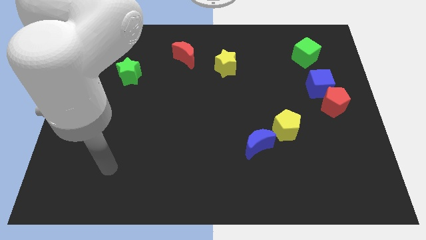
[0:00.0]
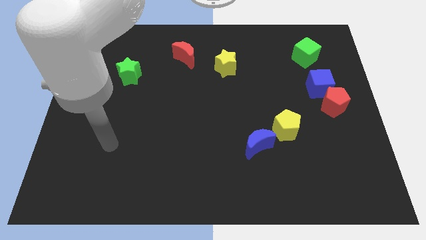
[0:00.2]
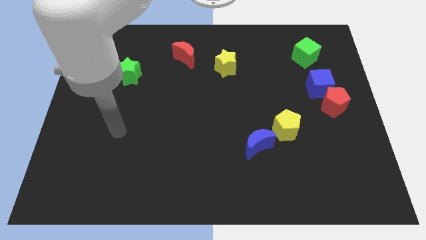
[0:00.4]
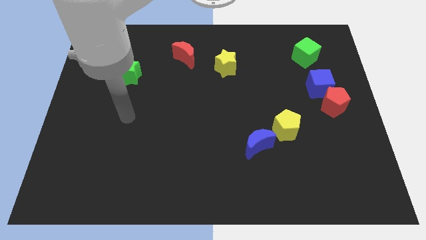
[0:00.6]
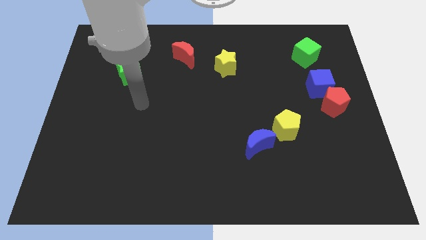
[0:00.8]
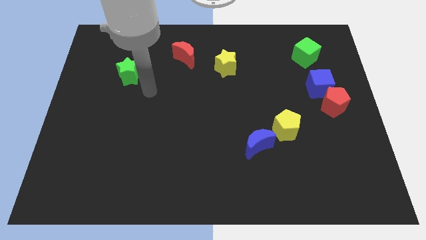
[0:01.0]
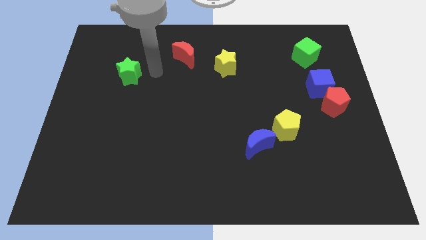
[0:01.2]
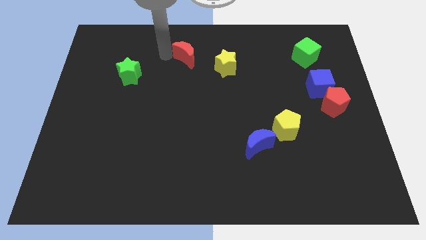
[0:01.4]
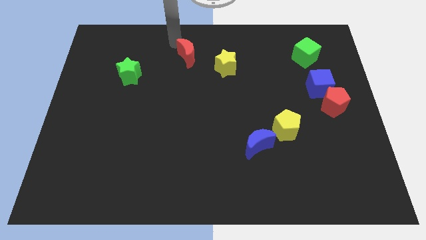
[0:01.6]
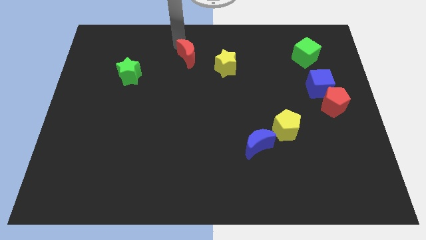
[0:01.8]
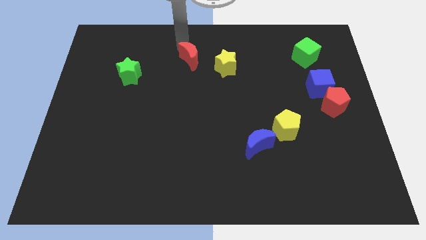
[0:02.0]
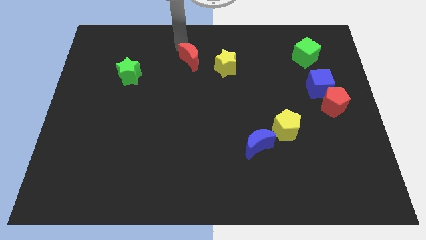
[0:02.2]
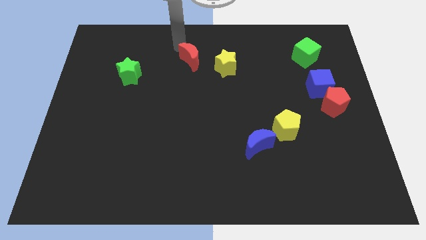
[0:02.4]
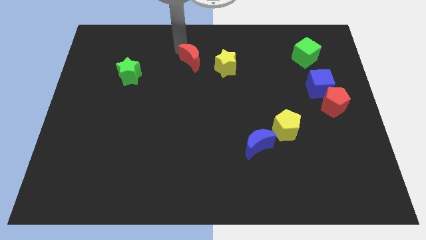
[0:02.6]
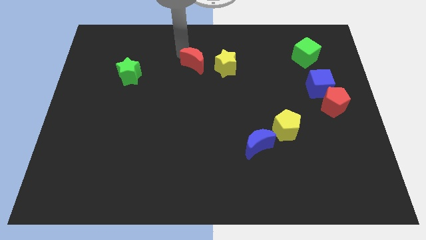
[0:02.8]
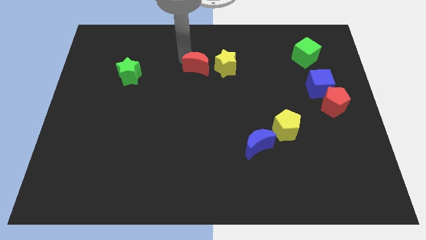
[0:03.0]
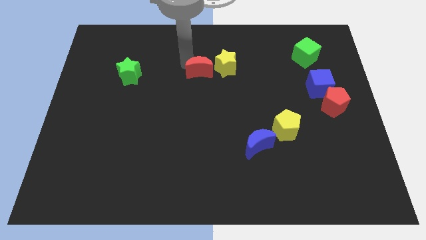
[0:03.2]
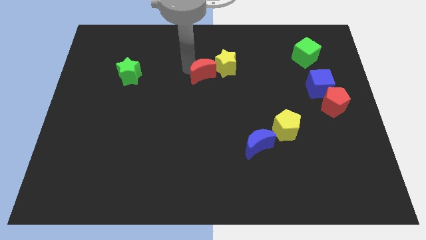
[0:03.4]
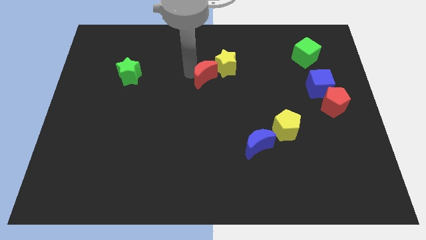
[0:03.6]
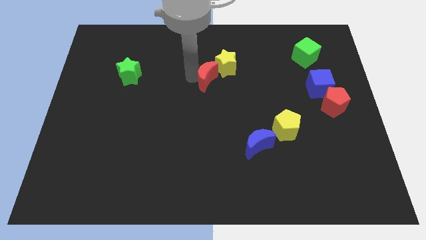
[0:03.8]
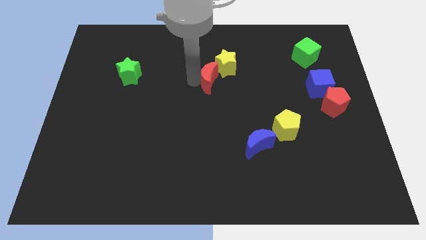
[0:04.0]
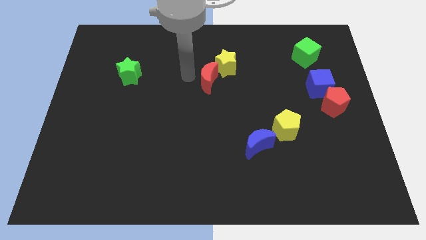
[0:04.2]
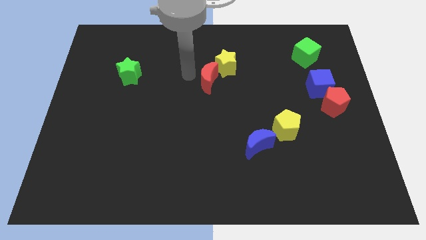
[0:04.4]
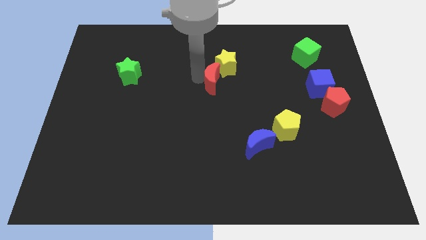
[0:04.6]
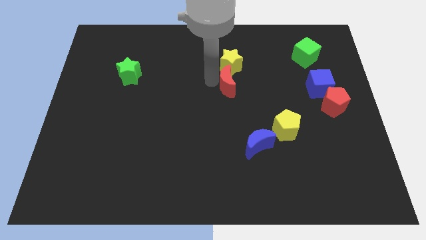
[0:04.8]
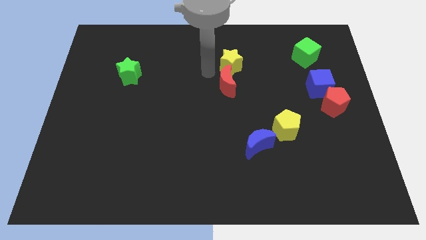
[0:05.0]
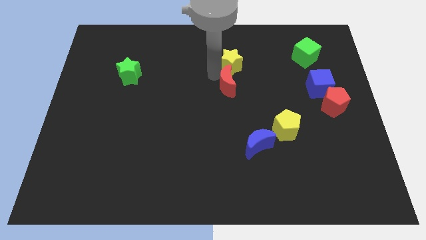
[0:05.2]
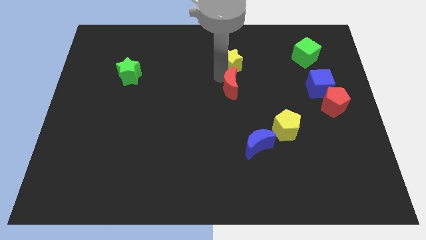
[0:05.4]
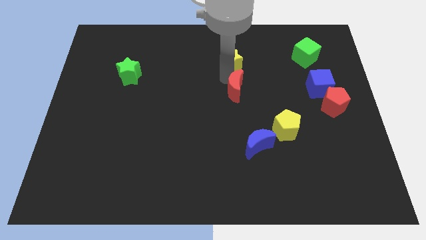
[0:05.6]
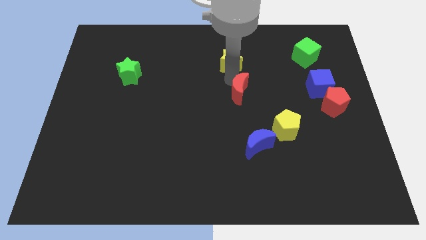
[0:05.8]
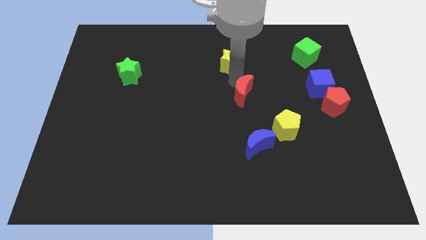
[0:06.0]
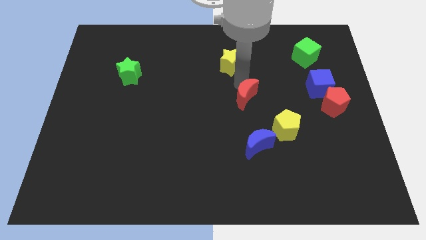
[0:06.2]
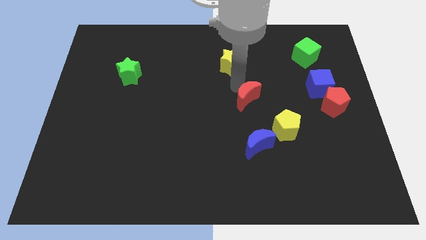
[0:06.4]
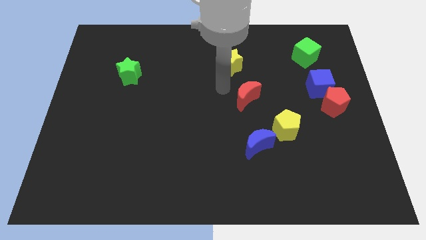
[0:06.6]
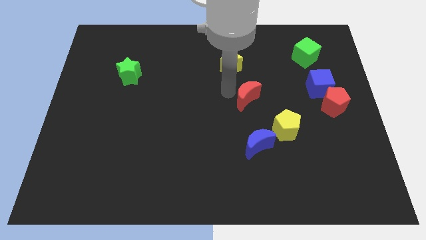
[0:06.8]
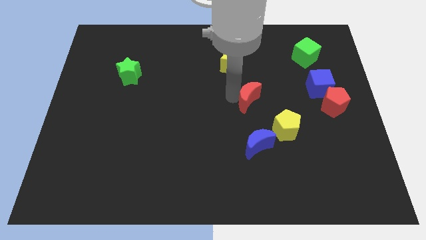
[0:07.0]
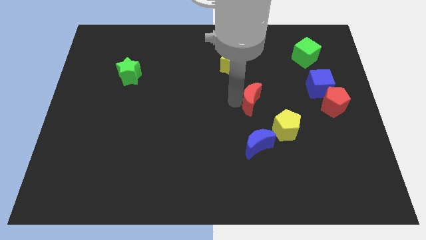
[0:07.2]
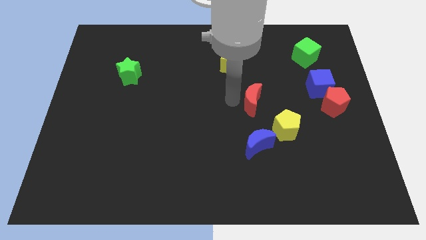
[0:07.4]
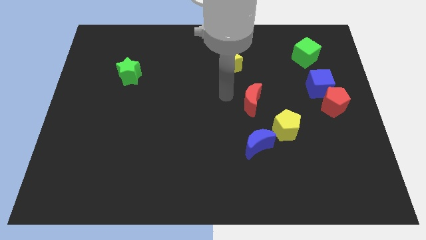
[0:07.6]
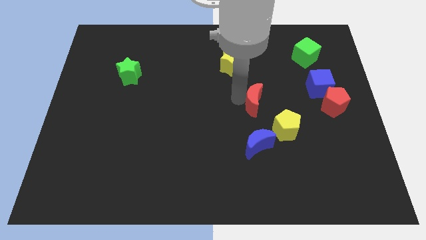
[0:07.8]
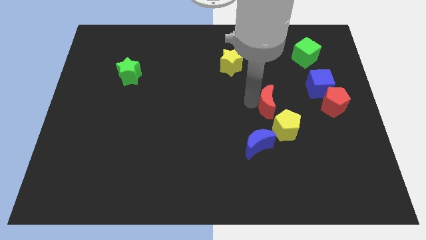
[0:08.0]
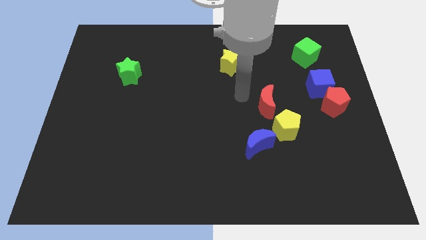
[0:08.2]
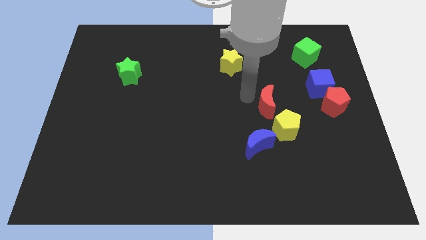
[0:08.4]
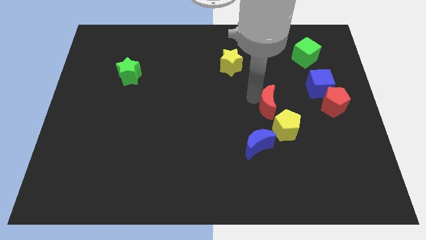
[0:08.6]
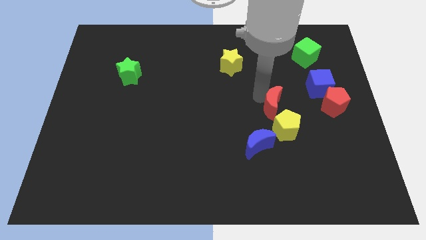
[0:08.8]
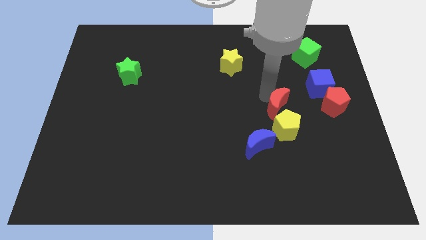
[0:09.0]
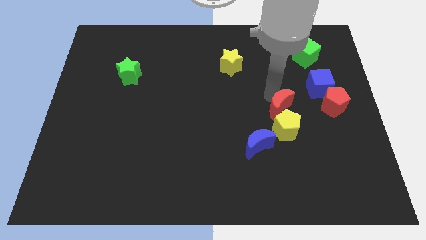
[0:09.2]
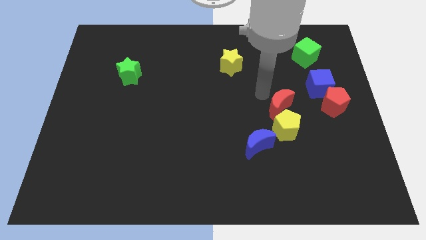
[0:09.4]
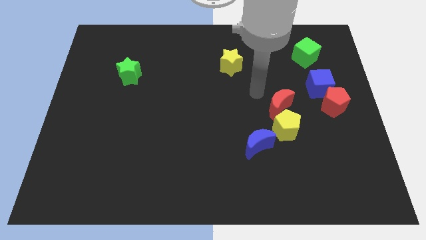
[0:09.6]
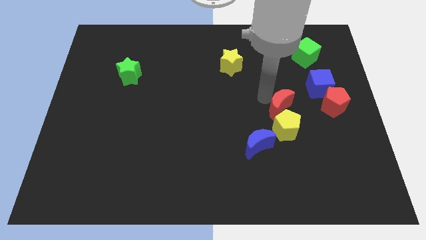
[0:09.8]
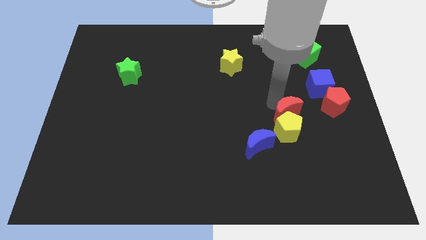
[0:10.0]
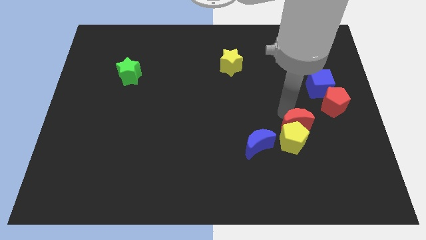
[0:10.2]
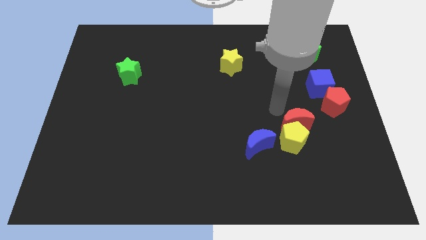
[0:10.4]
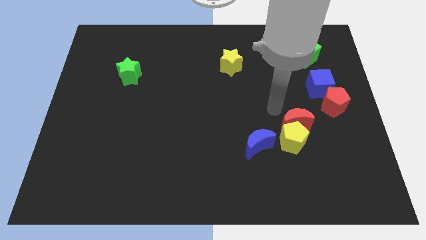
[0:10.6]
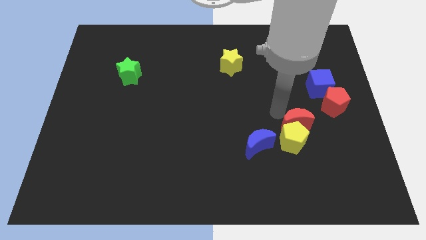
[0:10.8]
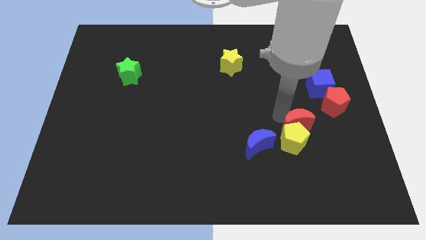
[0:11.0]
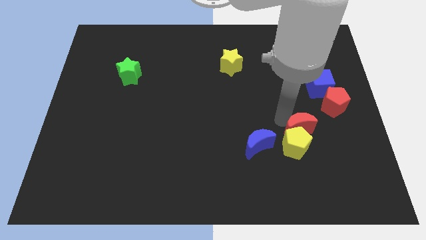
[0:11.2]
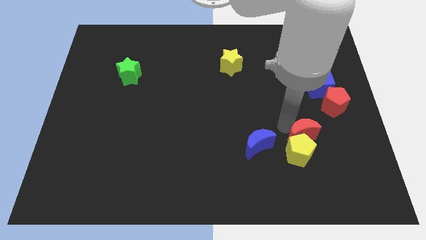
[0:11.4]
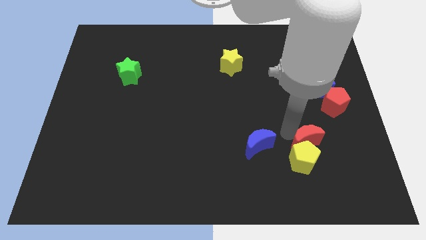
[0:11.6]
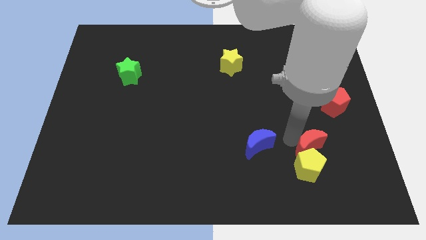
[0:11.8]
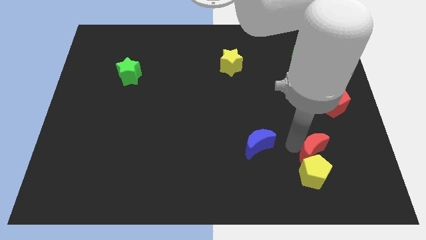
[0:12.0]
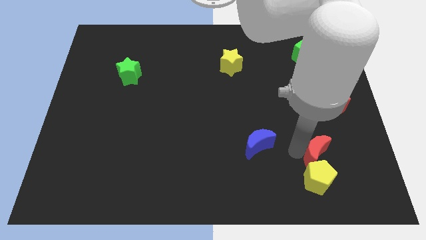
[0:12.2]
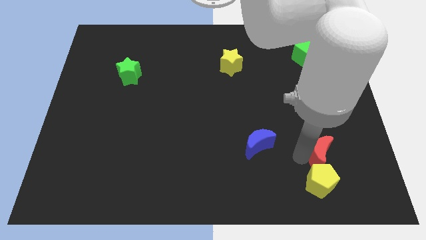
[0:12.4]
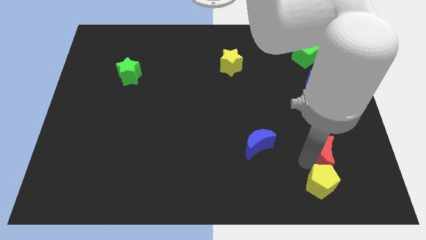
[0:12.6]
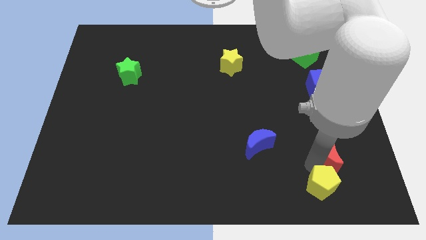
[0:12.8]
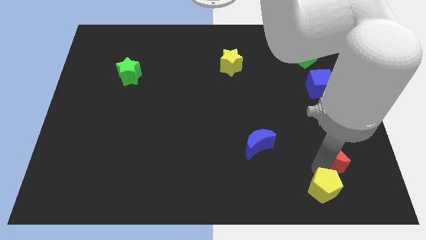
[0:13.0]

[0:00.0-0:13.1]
push the red moon below the red pentagon

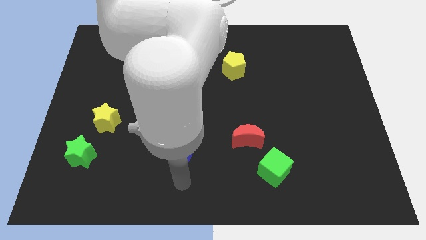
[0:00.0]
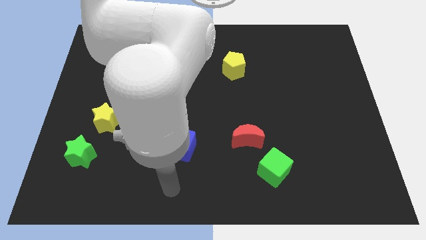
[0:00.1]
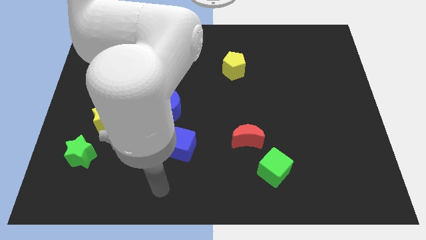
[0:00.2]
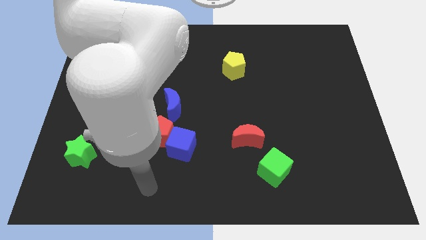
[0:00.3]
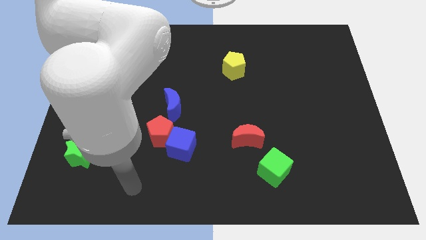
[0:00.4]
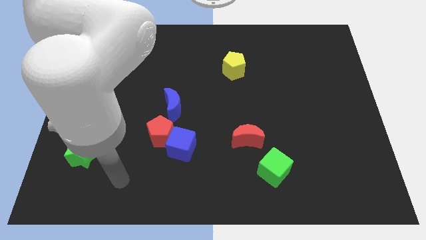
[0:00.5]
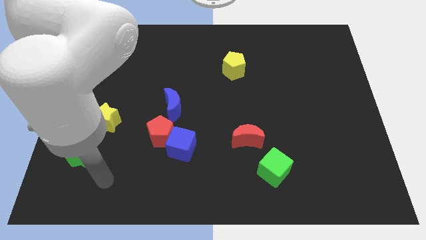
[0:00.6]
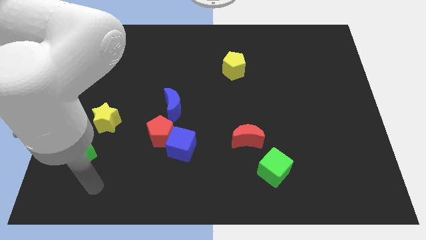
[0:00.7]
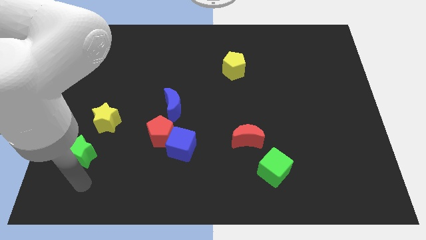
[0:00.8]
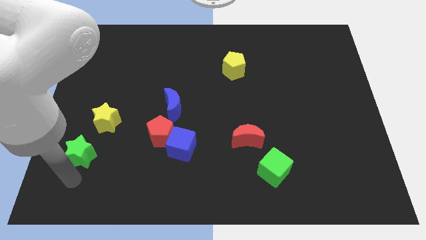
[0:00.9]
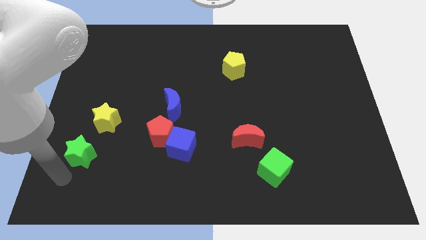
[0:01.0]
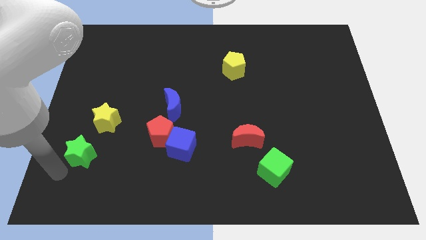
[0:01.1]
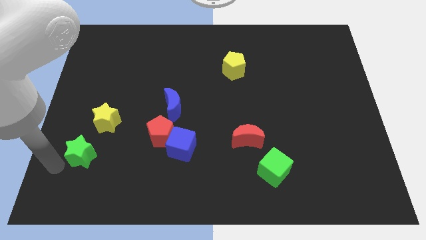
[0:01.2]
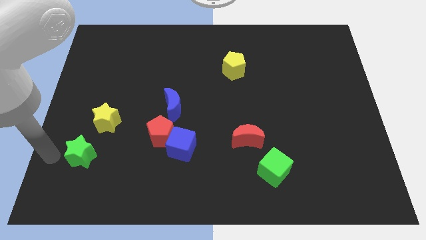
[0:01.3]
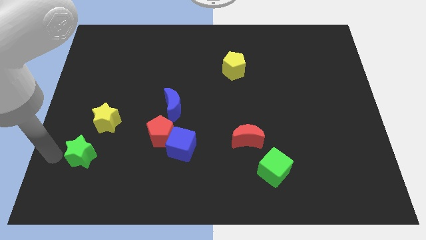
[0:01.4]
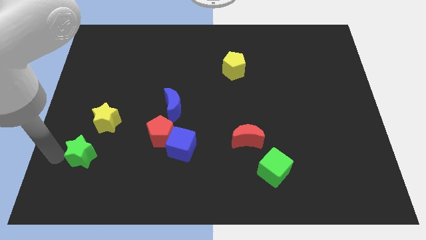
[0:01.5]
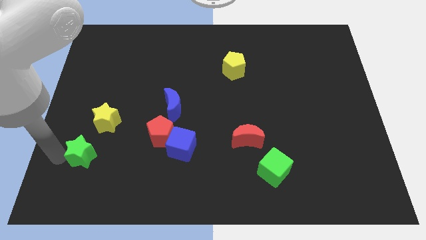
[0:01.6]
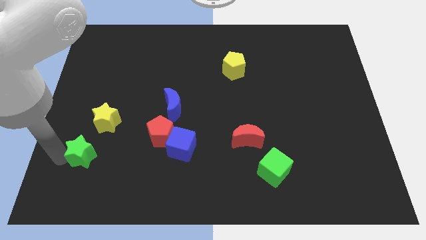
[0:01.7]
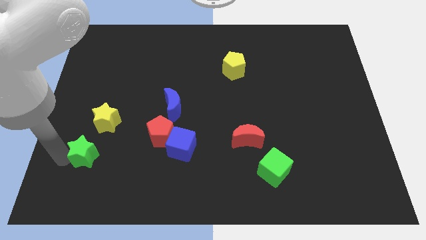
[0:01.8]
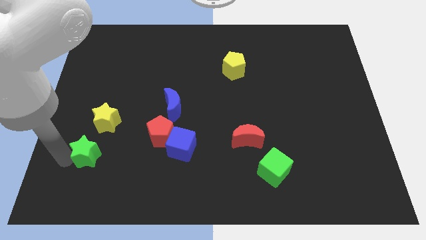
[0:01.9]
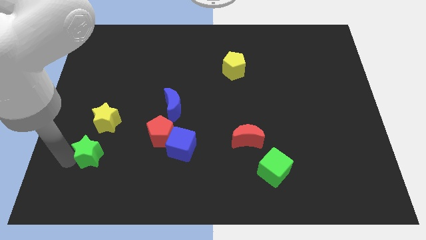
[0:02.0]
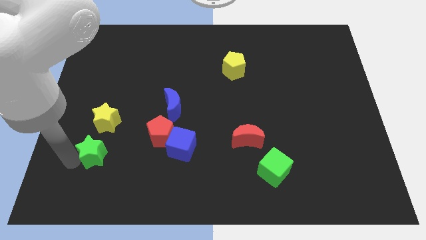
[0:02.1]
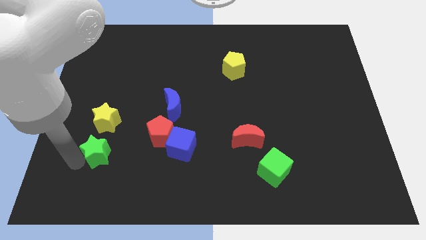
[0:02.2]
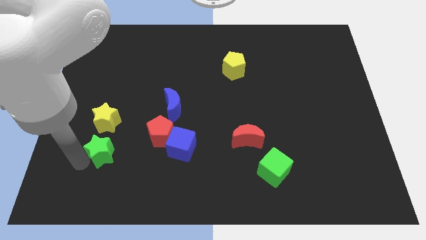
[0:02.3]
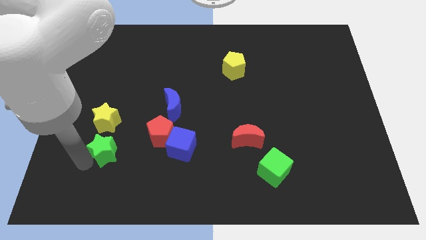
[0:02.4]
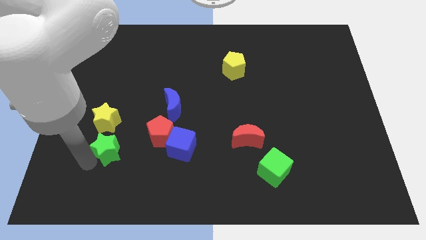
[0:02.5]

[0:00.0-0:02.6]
slide the green star to the left side of the blue cube
